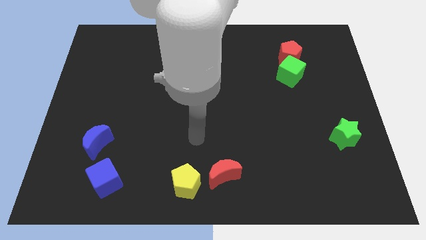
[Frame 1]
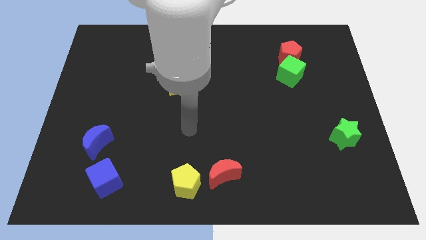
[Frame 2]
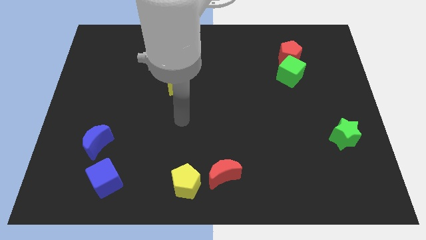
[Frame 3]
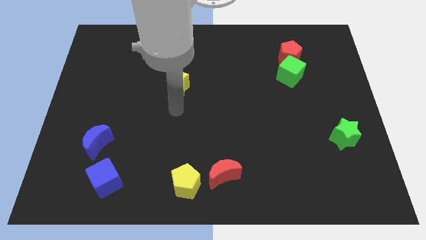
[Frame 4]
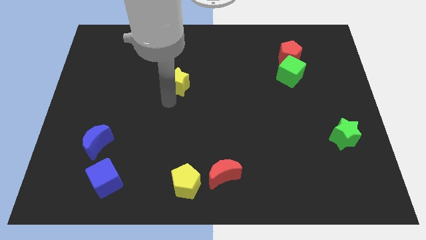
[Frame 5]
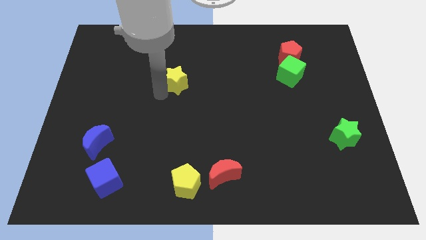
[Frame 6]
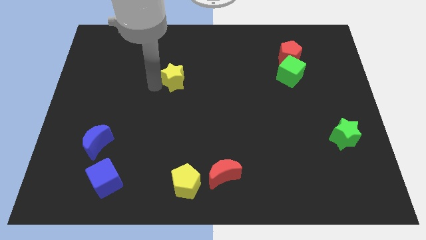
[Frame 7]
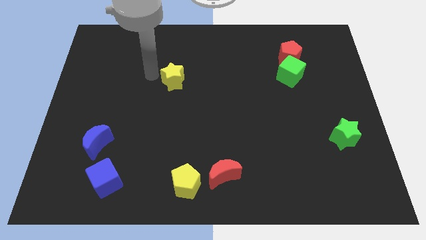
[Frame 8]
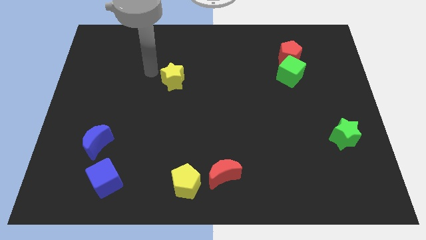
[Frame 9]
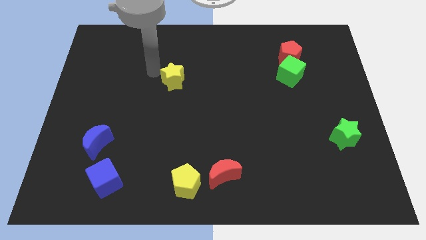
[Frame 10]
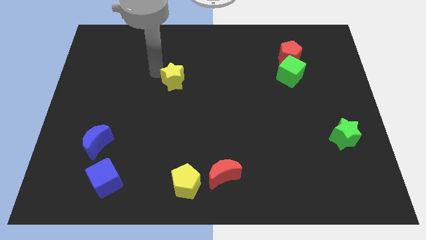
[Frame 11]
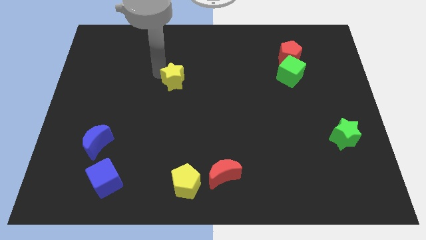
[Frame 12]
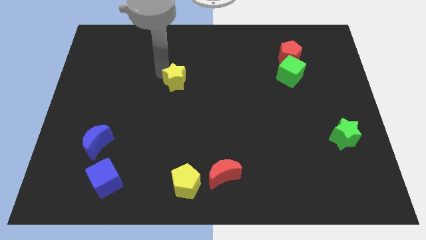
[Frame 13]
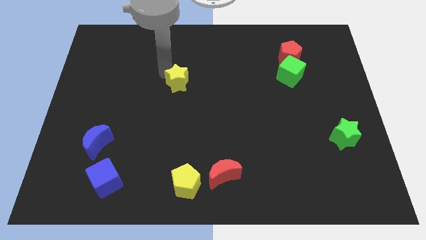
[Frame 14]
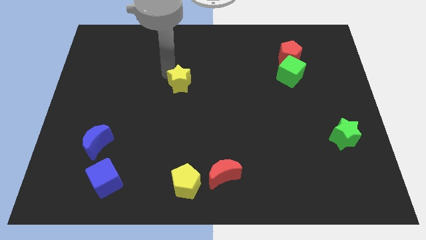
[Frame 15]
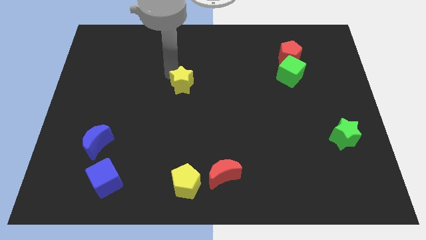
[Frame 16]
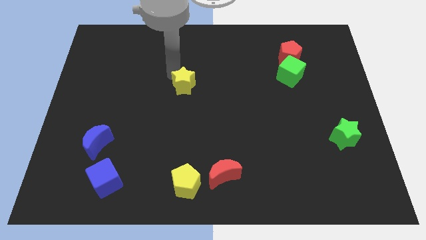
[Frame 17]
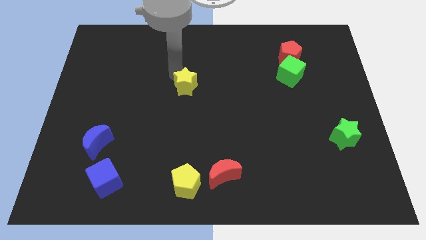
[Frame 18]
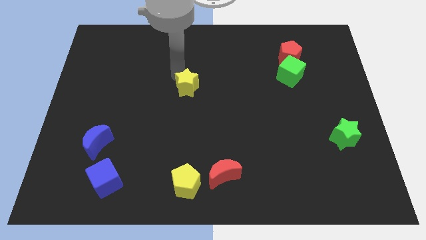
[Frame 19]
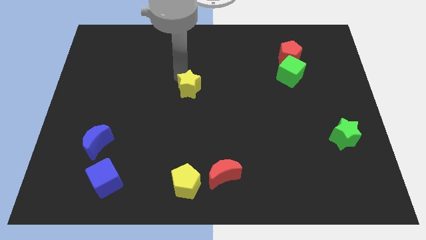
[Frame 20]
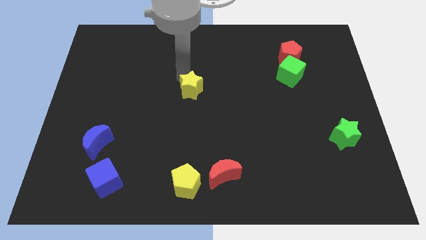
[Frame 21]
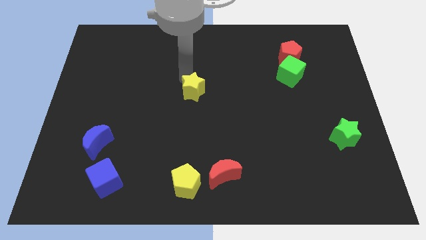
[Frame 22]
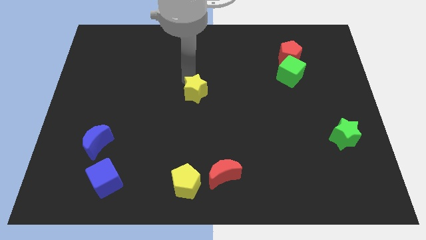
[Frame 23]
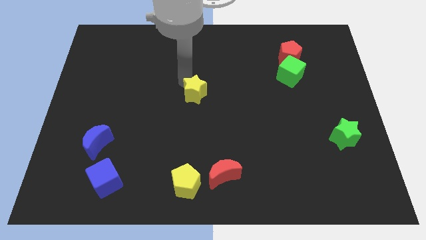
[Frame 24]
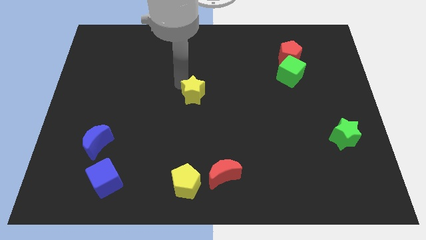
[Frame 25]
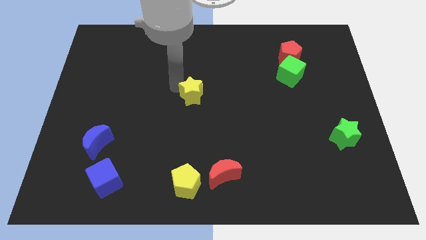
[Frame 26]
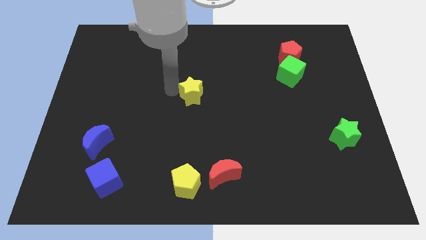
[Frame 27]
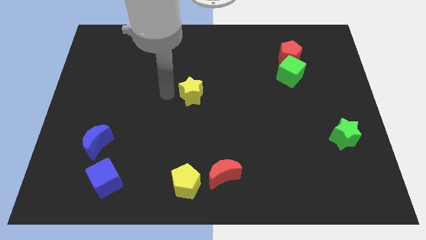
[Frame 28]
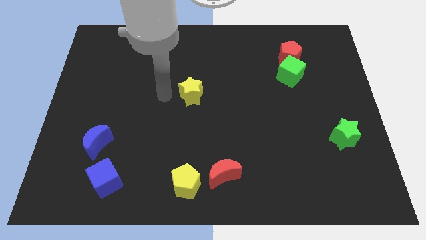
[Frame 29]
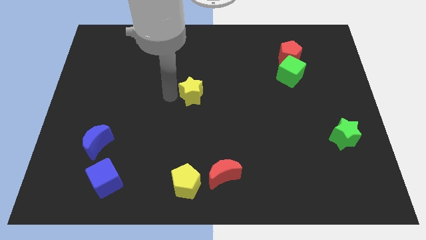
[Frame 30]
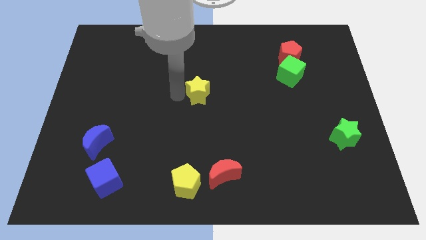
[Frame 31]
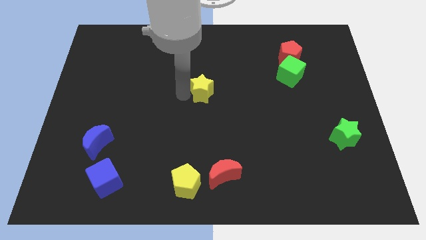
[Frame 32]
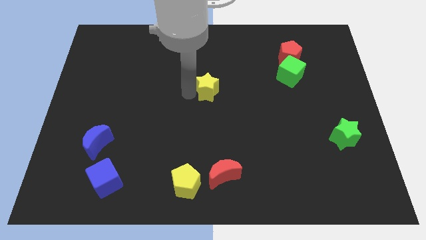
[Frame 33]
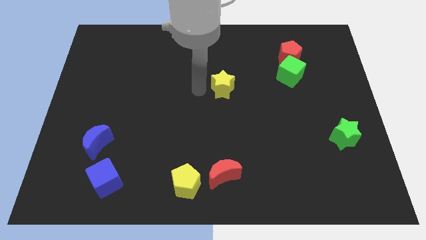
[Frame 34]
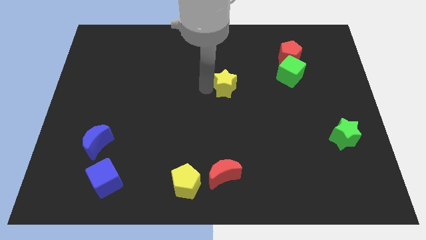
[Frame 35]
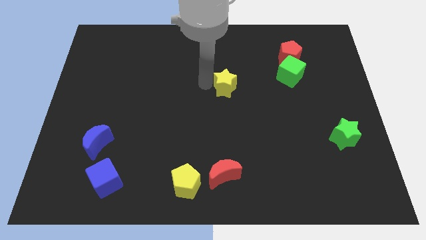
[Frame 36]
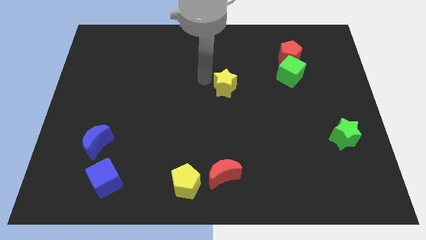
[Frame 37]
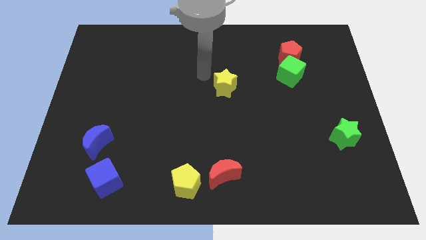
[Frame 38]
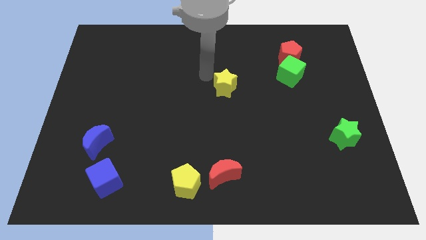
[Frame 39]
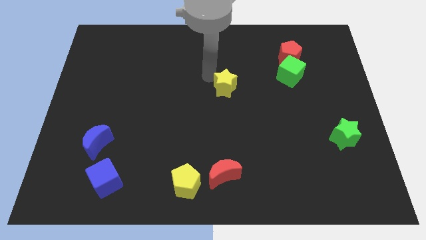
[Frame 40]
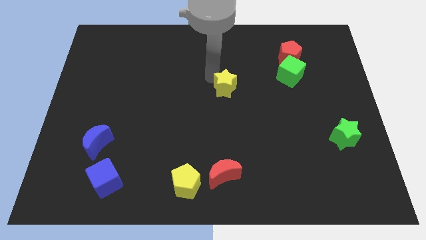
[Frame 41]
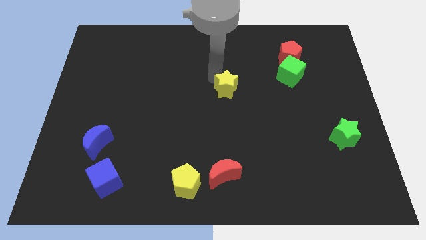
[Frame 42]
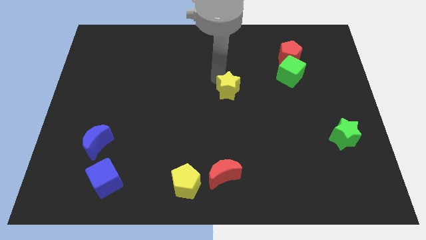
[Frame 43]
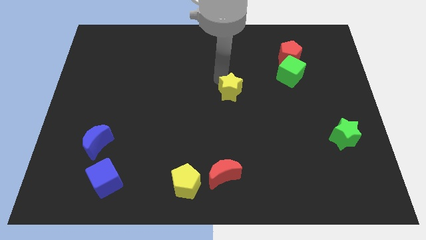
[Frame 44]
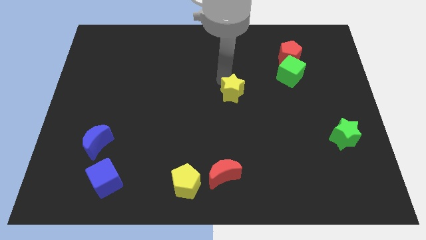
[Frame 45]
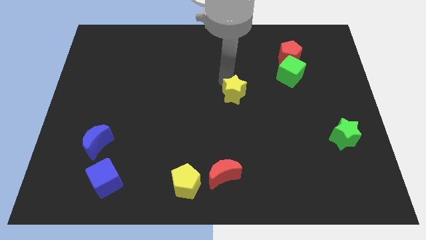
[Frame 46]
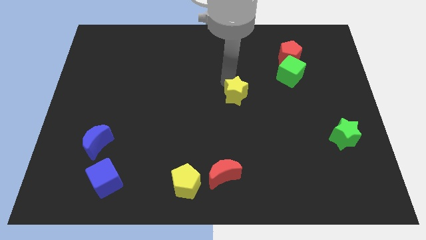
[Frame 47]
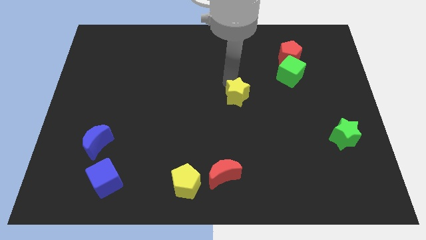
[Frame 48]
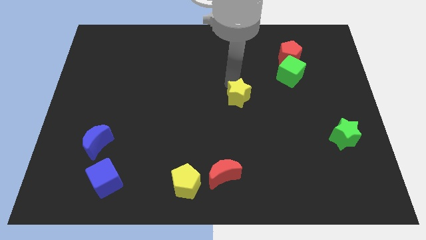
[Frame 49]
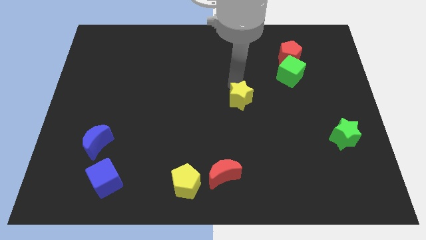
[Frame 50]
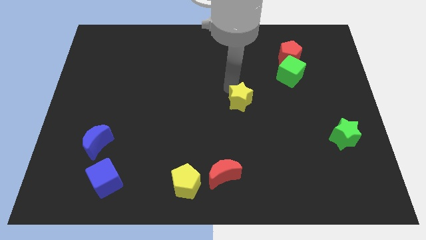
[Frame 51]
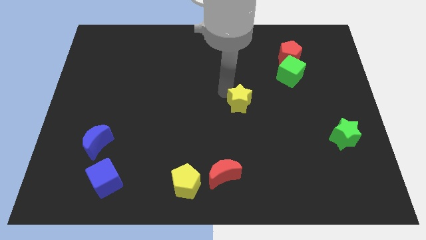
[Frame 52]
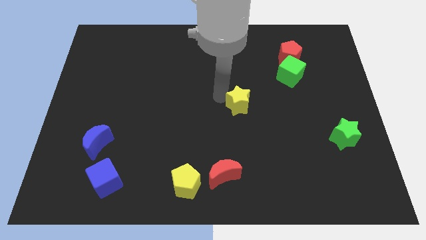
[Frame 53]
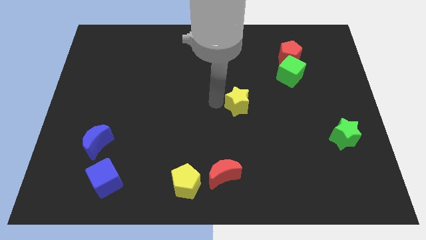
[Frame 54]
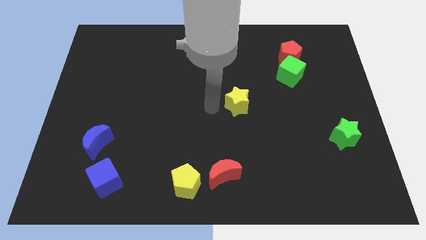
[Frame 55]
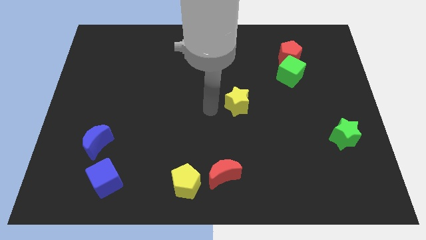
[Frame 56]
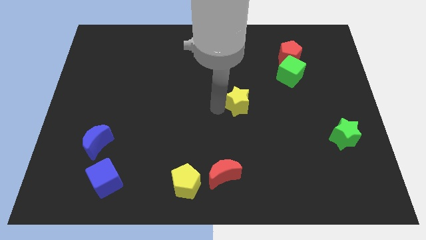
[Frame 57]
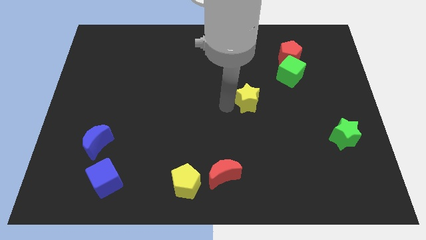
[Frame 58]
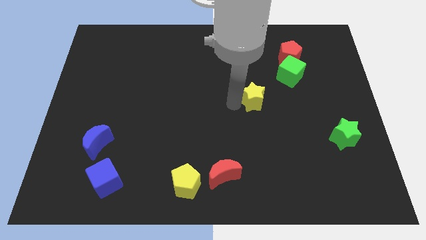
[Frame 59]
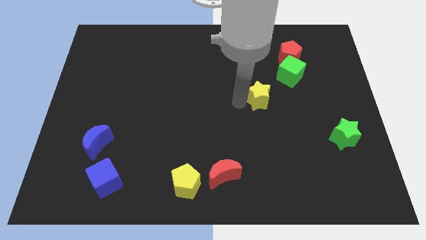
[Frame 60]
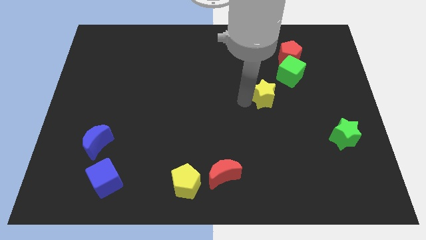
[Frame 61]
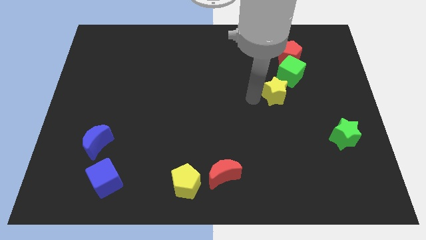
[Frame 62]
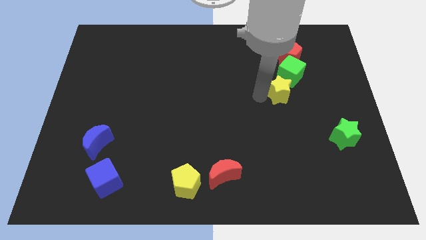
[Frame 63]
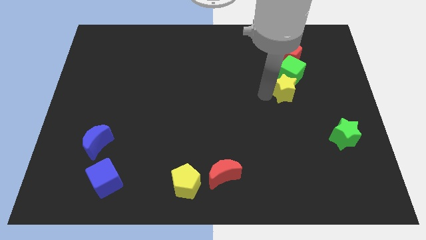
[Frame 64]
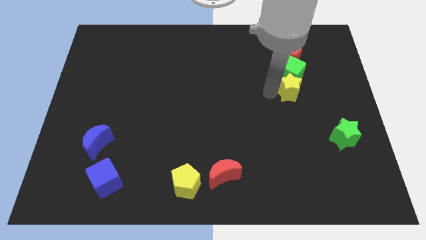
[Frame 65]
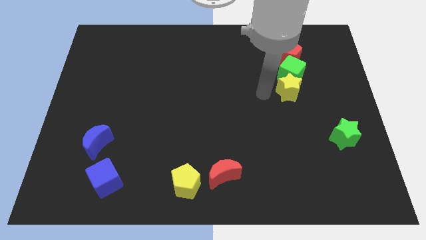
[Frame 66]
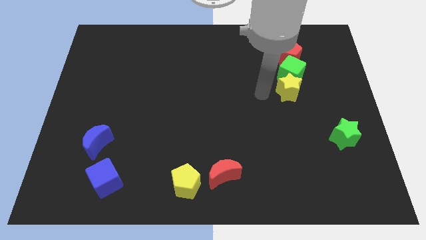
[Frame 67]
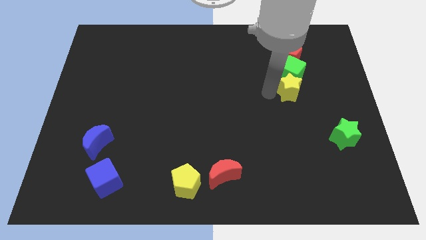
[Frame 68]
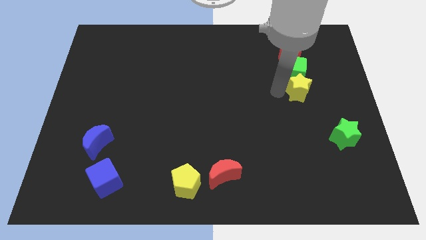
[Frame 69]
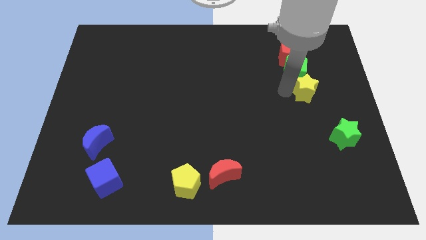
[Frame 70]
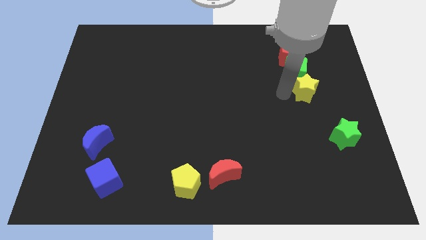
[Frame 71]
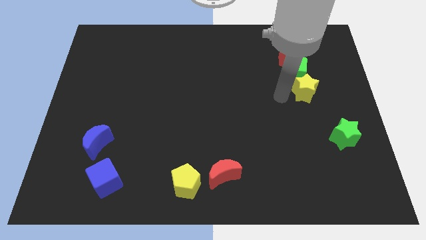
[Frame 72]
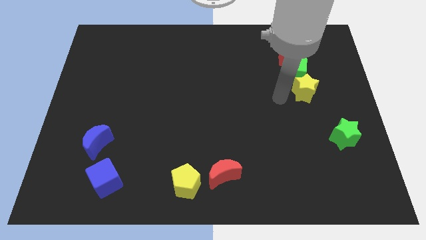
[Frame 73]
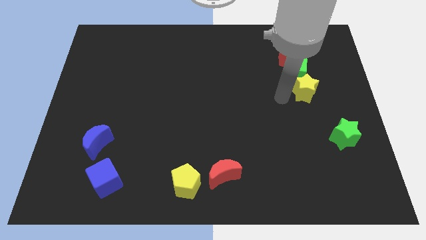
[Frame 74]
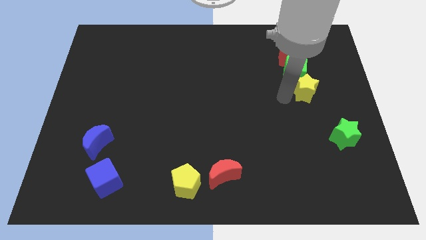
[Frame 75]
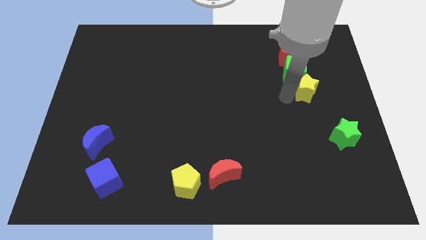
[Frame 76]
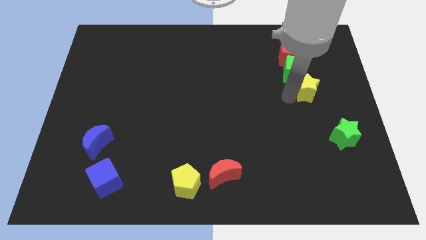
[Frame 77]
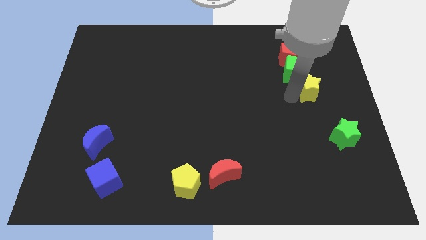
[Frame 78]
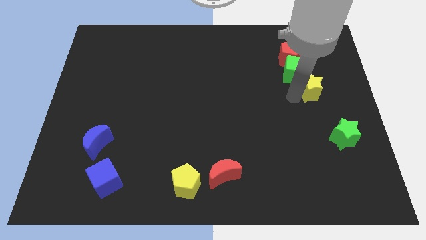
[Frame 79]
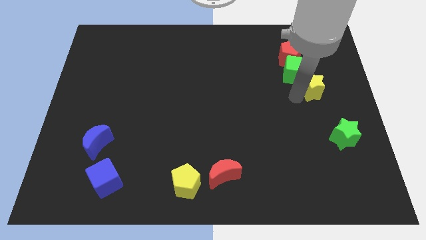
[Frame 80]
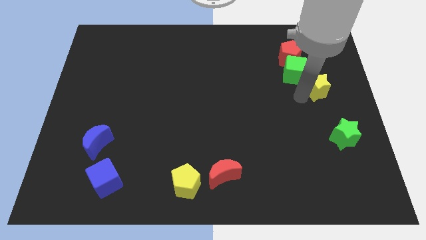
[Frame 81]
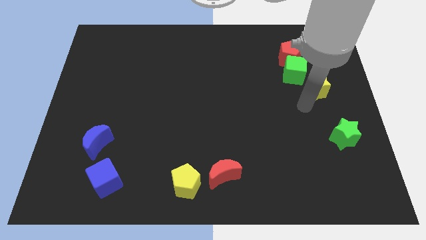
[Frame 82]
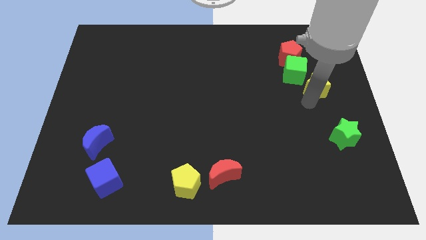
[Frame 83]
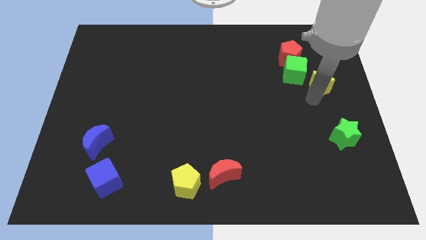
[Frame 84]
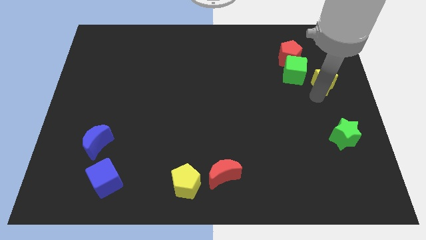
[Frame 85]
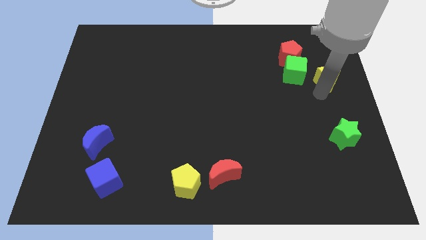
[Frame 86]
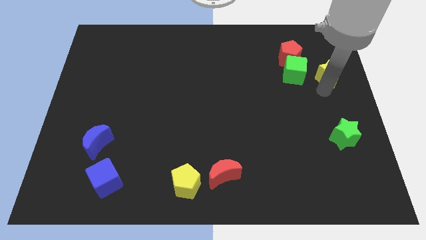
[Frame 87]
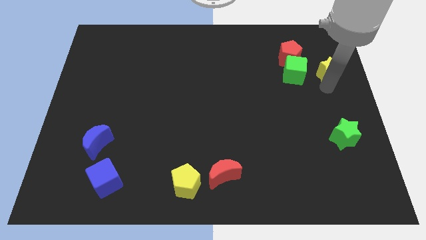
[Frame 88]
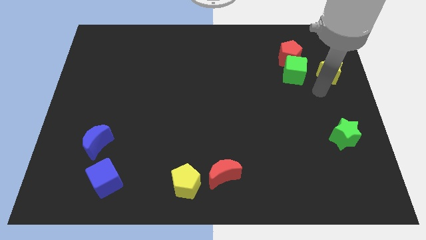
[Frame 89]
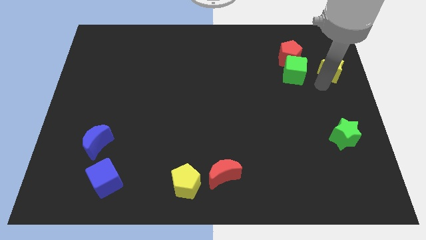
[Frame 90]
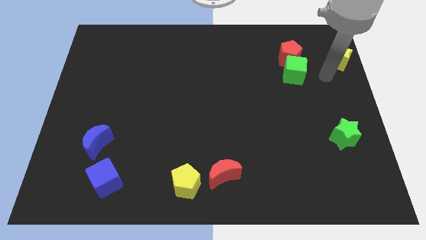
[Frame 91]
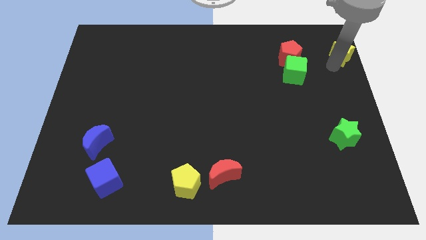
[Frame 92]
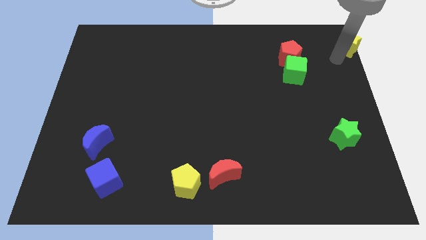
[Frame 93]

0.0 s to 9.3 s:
move the yellow star to the top right of the board
